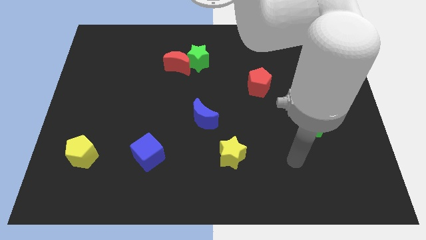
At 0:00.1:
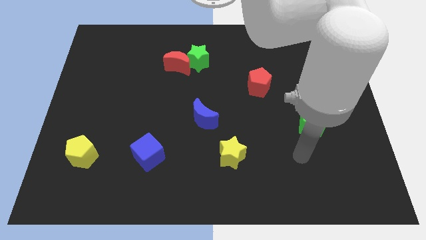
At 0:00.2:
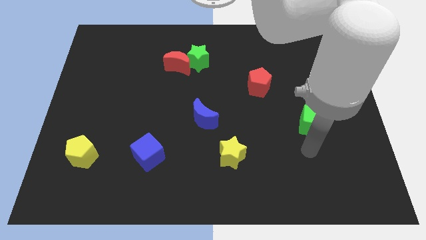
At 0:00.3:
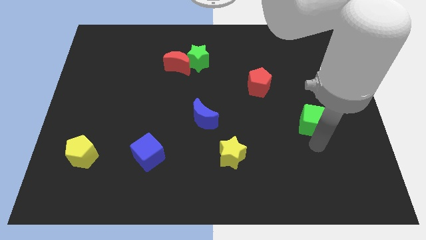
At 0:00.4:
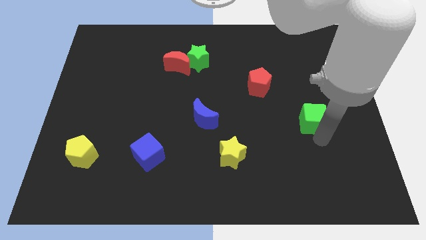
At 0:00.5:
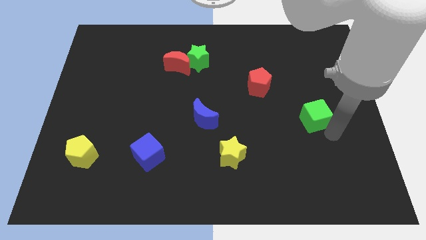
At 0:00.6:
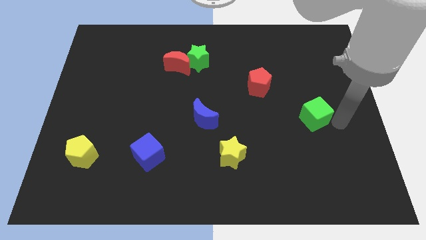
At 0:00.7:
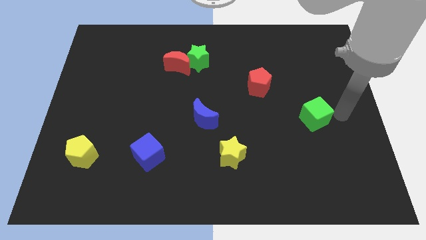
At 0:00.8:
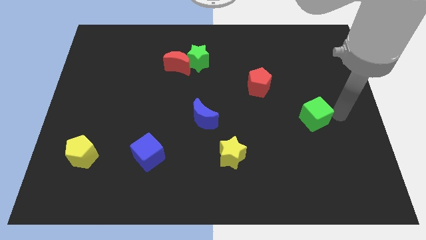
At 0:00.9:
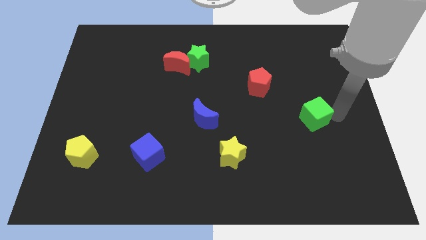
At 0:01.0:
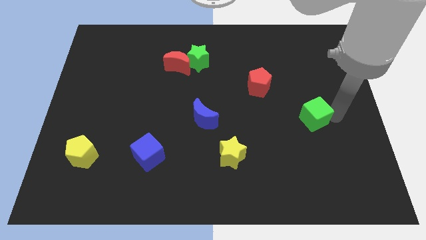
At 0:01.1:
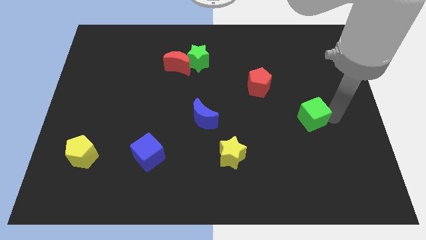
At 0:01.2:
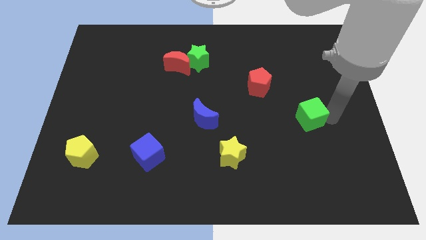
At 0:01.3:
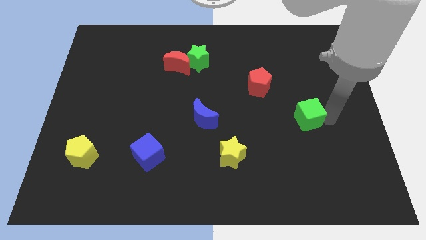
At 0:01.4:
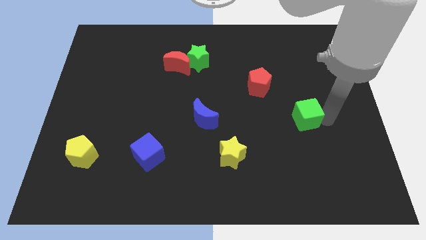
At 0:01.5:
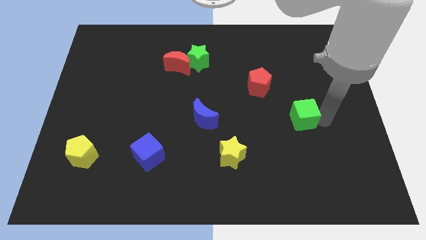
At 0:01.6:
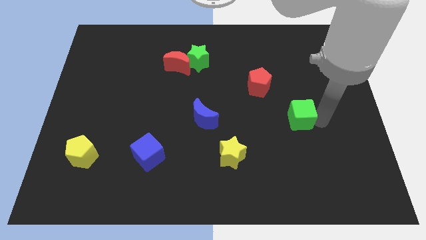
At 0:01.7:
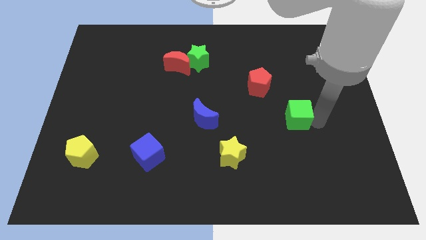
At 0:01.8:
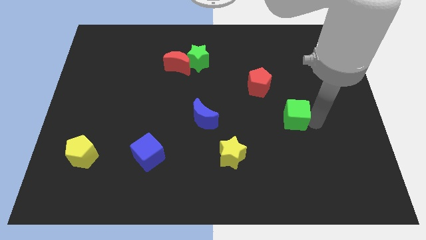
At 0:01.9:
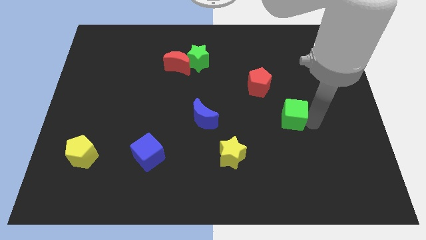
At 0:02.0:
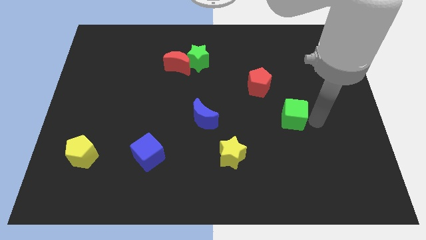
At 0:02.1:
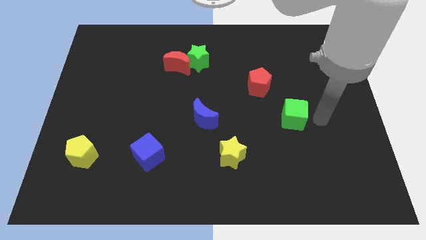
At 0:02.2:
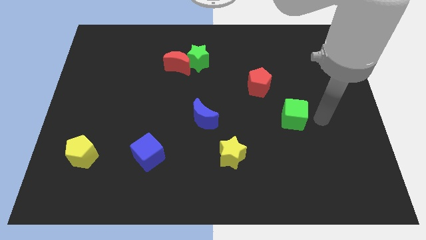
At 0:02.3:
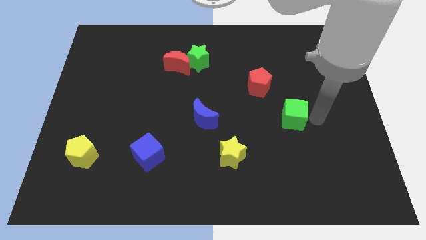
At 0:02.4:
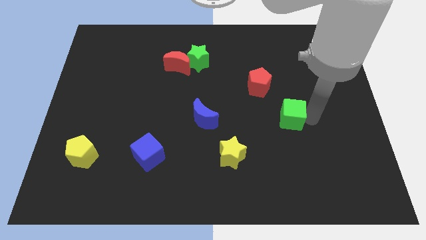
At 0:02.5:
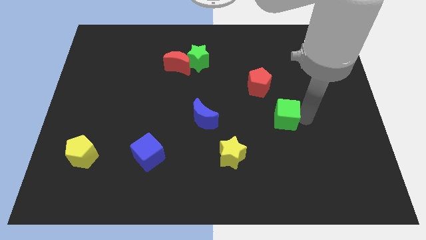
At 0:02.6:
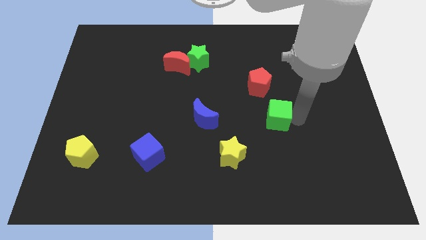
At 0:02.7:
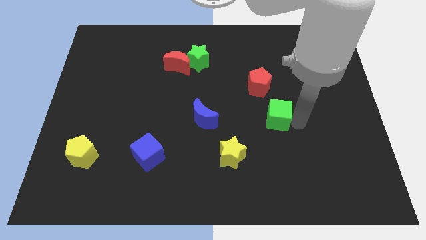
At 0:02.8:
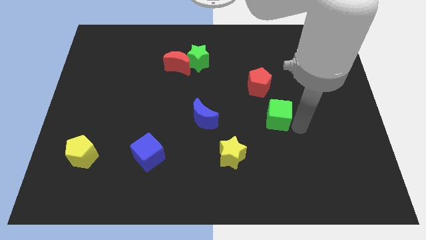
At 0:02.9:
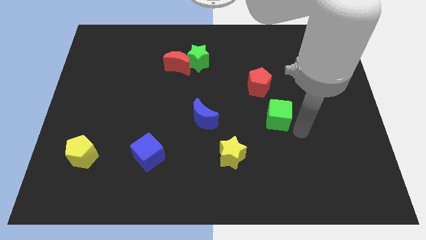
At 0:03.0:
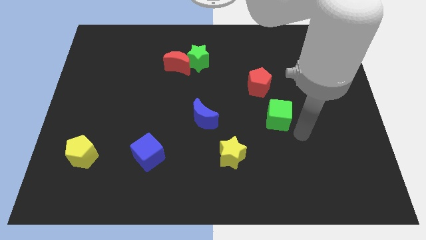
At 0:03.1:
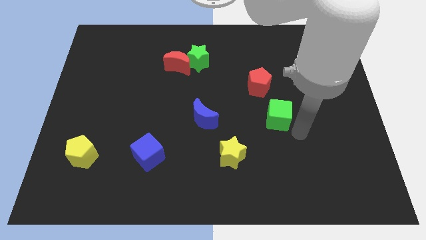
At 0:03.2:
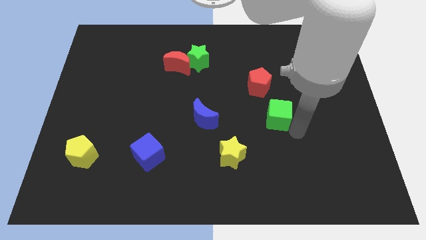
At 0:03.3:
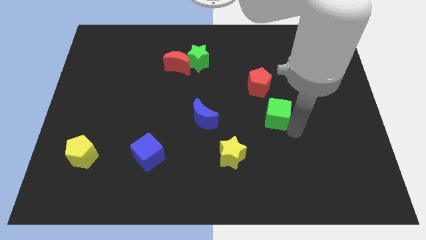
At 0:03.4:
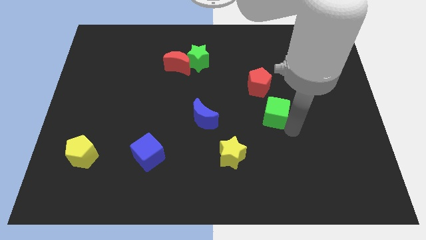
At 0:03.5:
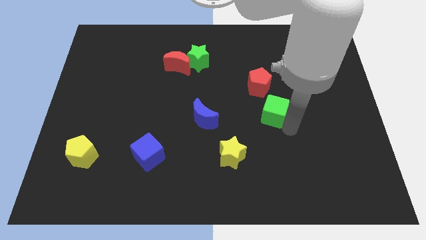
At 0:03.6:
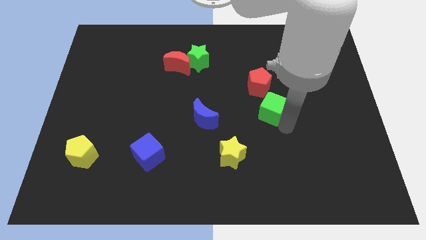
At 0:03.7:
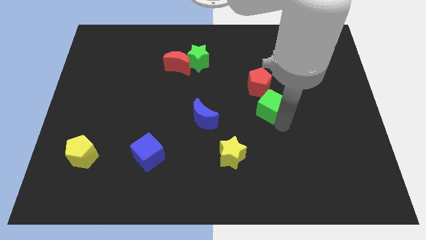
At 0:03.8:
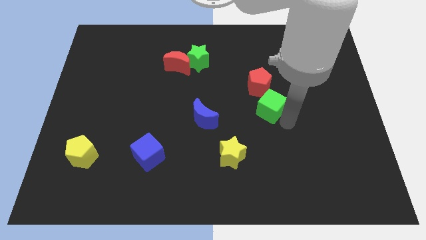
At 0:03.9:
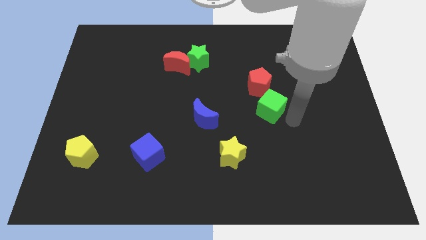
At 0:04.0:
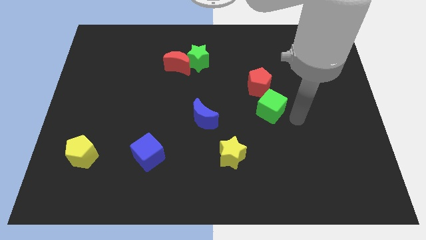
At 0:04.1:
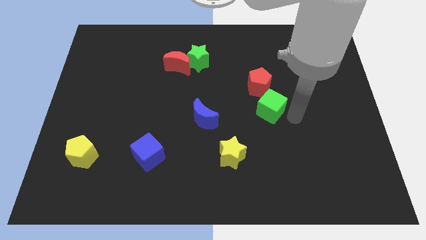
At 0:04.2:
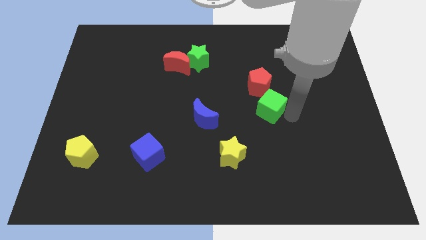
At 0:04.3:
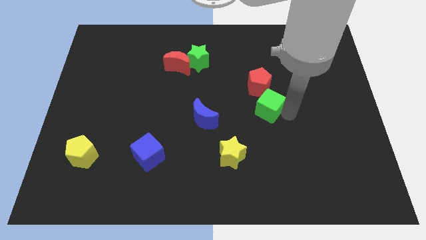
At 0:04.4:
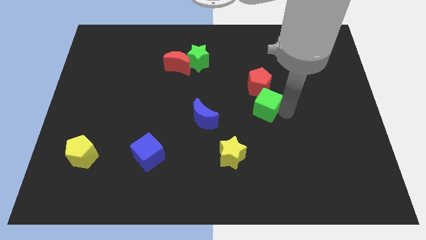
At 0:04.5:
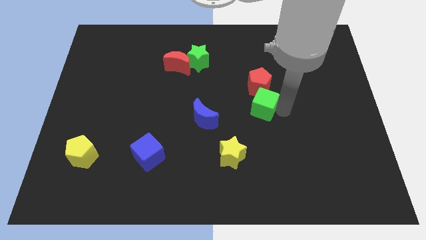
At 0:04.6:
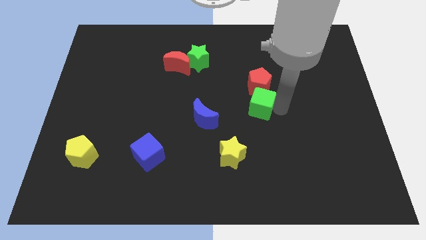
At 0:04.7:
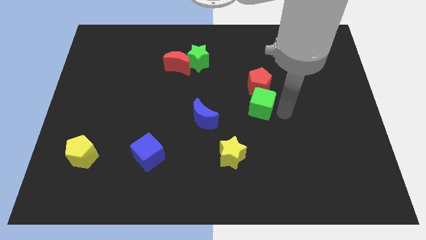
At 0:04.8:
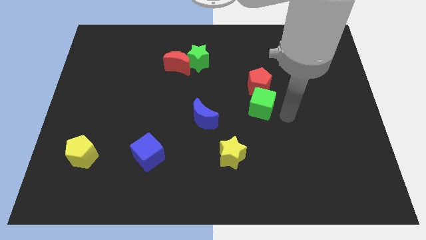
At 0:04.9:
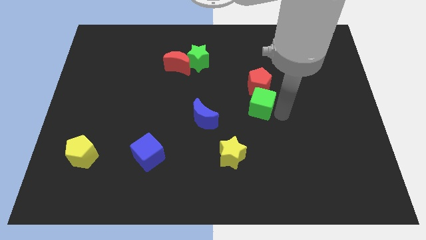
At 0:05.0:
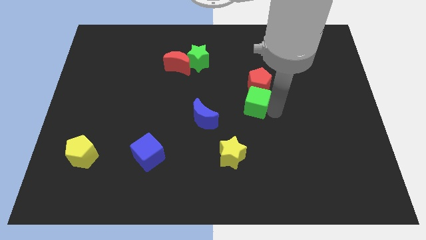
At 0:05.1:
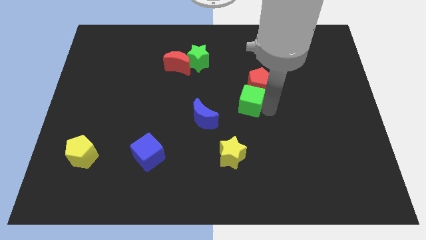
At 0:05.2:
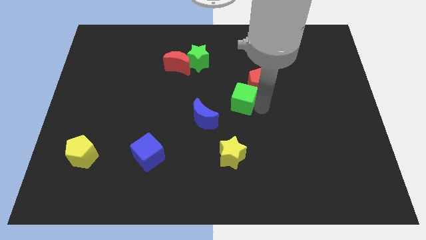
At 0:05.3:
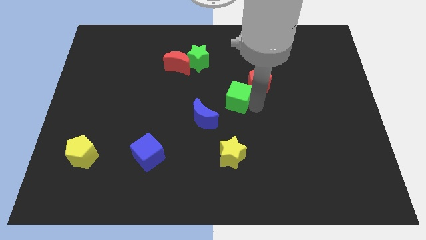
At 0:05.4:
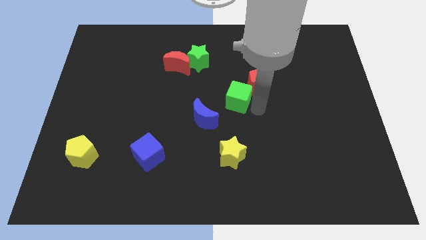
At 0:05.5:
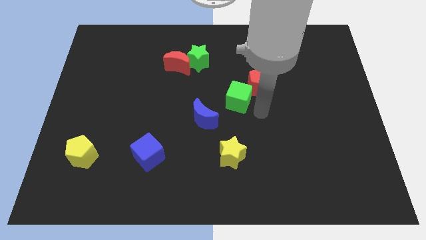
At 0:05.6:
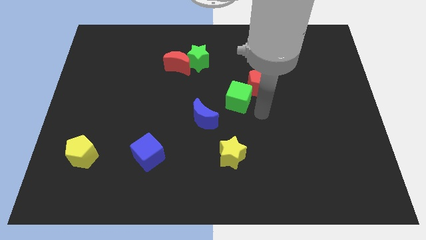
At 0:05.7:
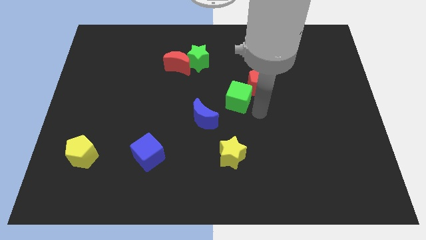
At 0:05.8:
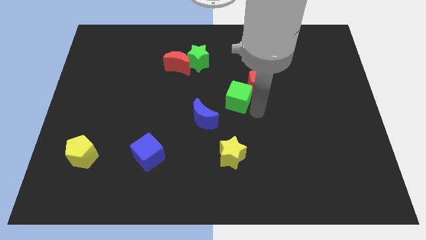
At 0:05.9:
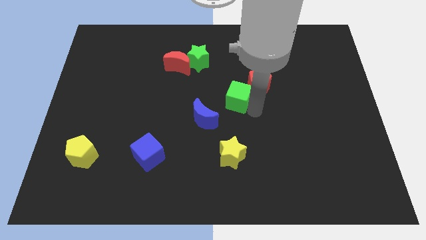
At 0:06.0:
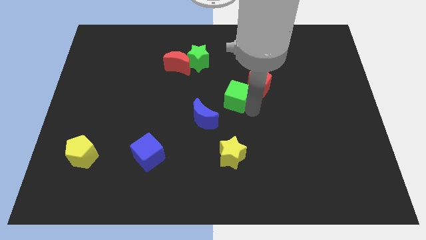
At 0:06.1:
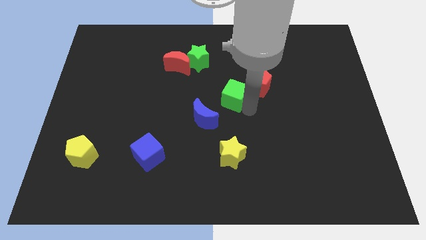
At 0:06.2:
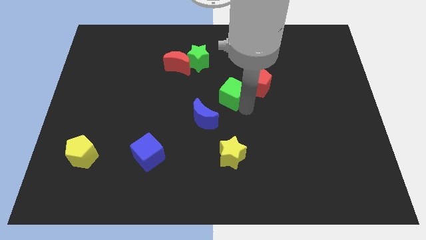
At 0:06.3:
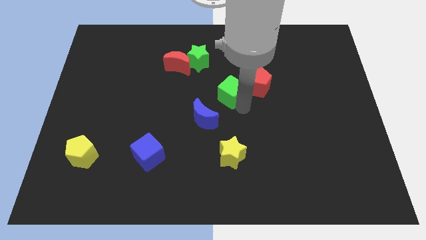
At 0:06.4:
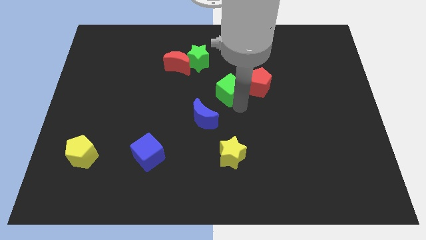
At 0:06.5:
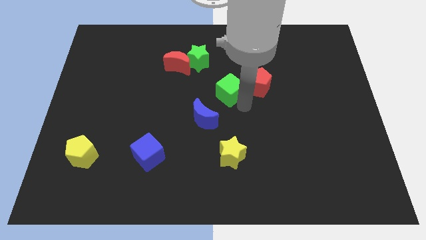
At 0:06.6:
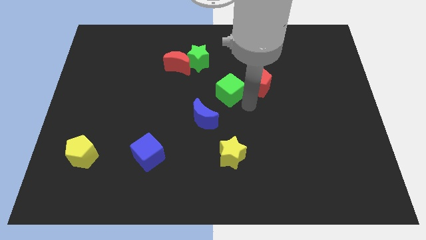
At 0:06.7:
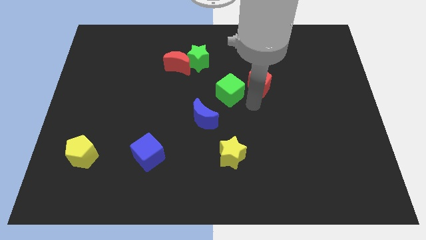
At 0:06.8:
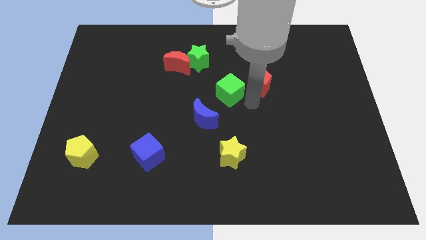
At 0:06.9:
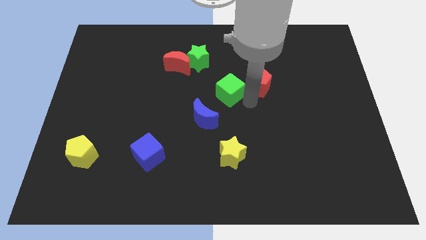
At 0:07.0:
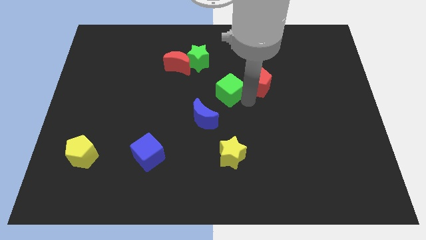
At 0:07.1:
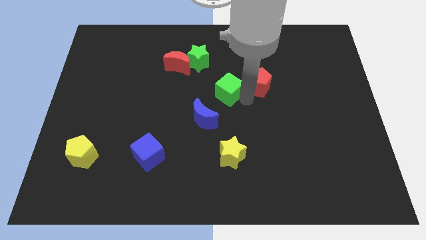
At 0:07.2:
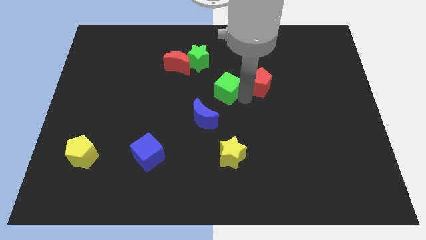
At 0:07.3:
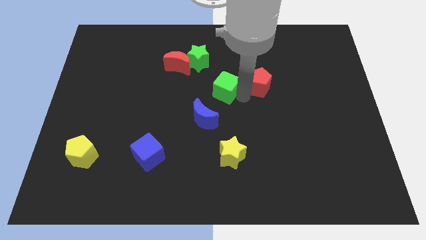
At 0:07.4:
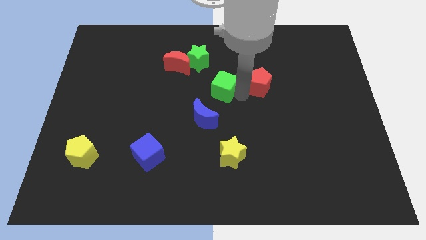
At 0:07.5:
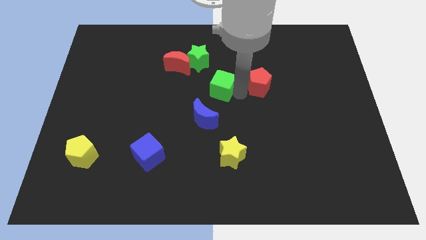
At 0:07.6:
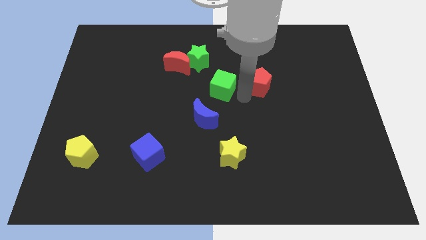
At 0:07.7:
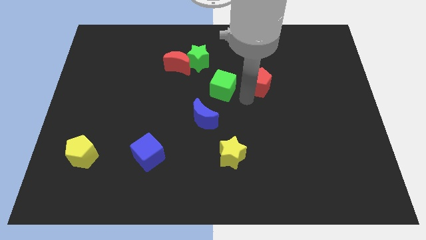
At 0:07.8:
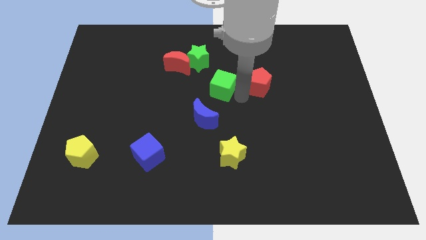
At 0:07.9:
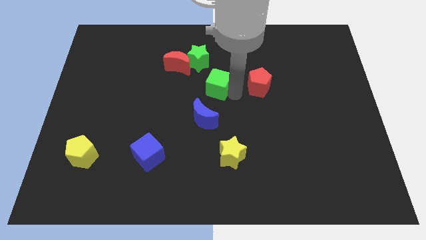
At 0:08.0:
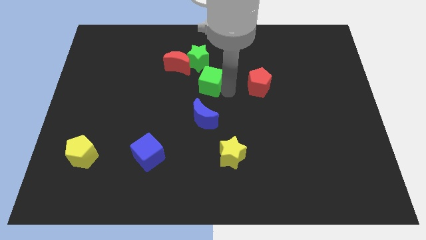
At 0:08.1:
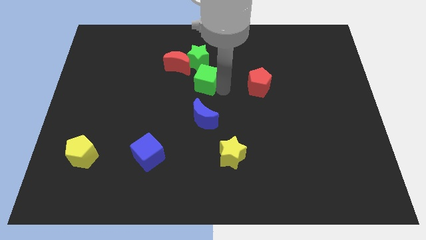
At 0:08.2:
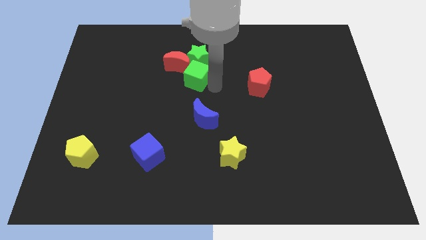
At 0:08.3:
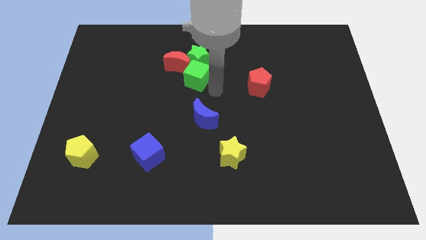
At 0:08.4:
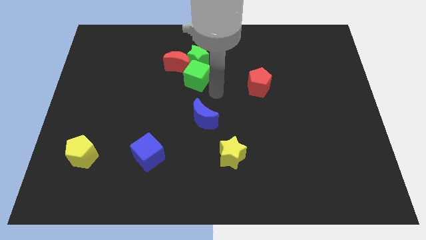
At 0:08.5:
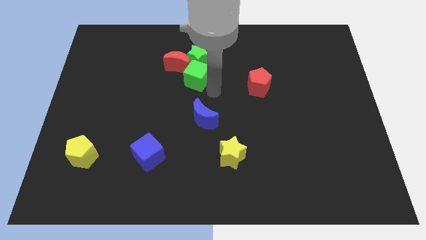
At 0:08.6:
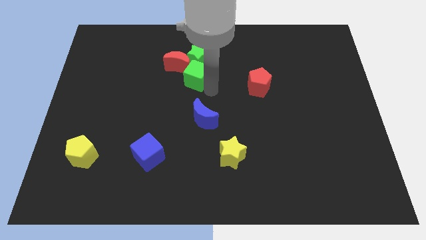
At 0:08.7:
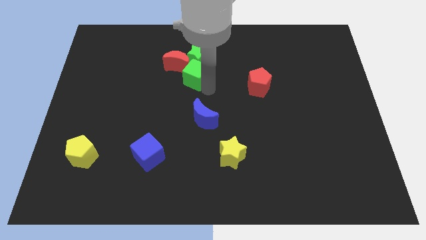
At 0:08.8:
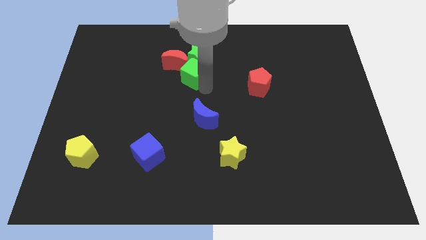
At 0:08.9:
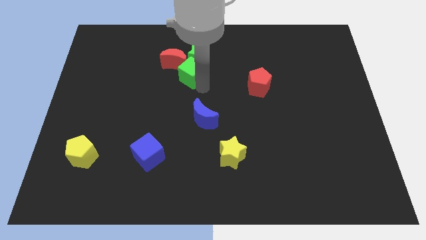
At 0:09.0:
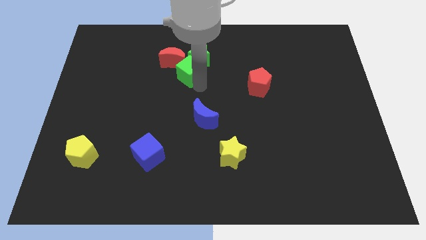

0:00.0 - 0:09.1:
put the green cube to the red moon
